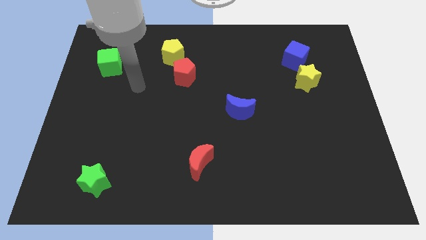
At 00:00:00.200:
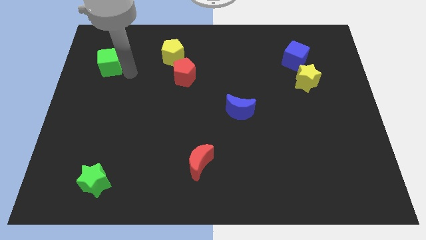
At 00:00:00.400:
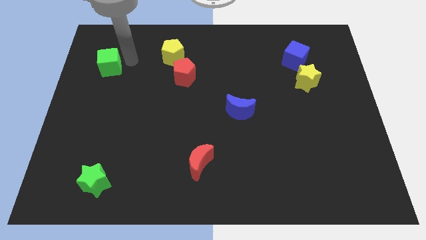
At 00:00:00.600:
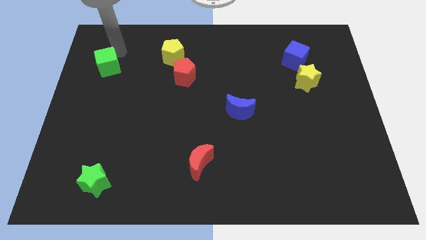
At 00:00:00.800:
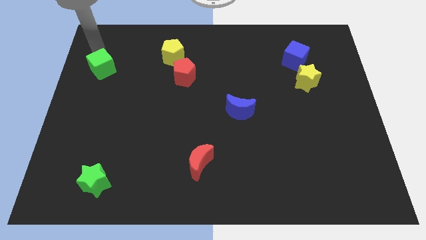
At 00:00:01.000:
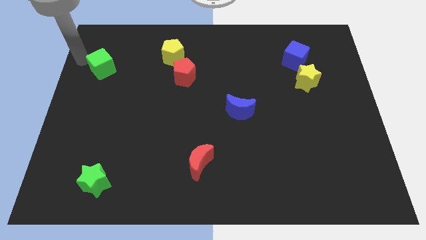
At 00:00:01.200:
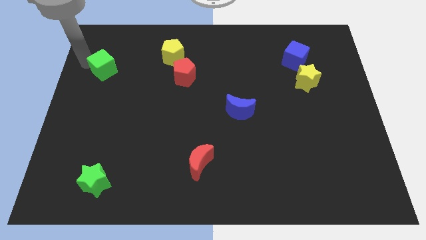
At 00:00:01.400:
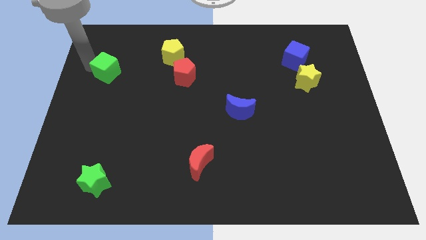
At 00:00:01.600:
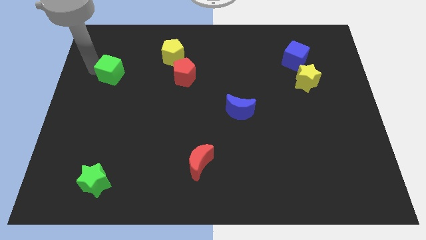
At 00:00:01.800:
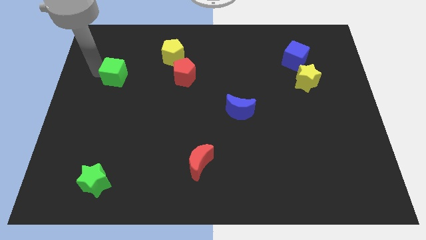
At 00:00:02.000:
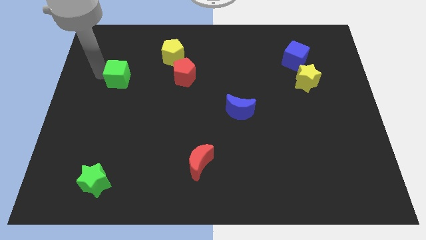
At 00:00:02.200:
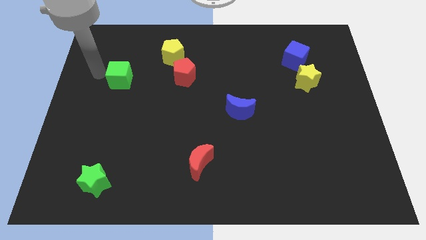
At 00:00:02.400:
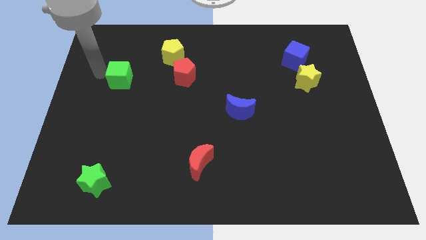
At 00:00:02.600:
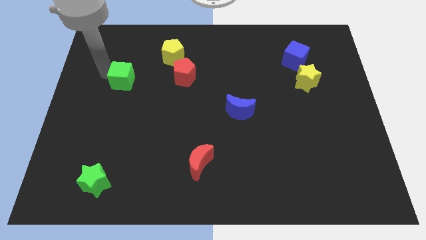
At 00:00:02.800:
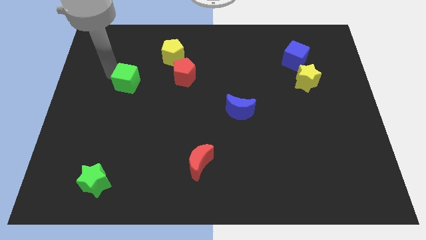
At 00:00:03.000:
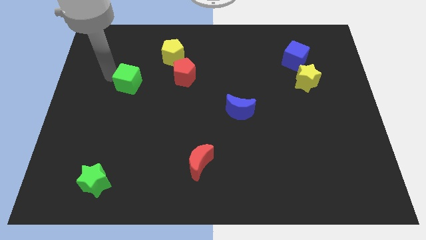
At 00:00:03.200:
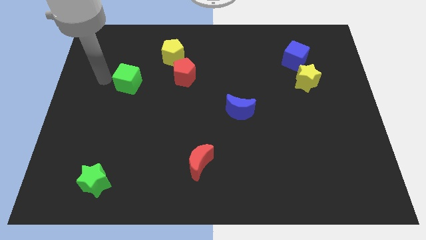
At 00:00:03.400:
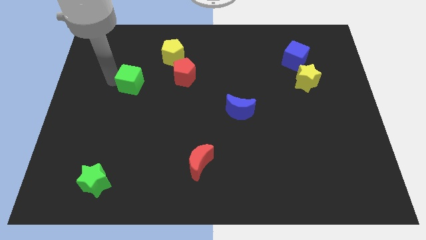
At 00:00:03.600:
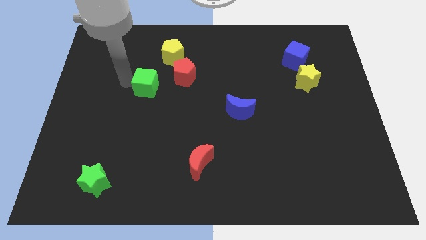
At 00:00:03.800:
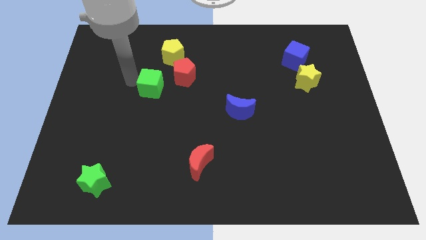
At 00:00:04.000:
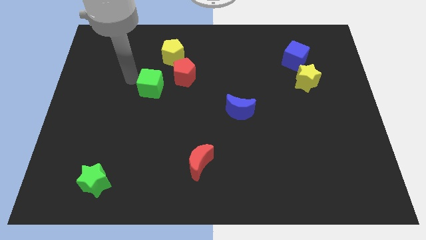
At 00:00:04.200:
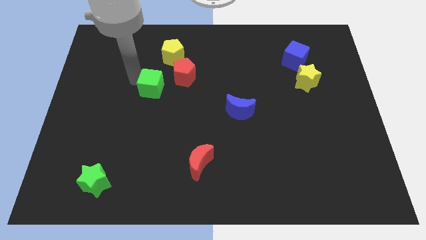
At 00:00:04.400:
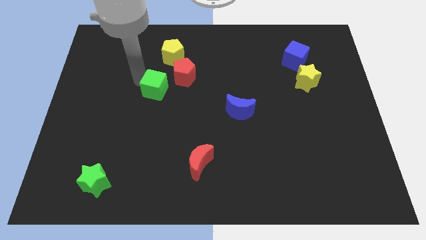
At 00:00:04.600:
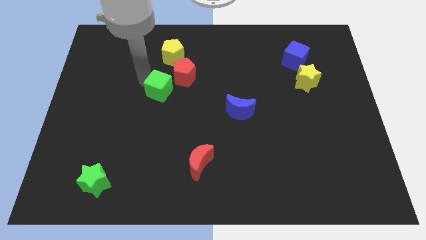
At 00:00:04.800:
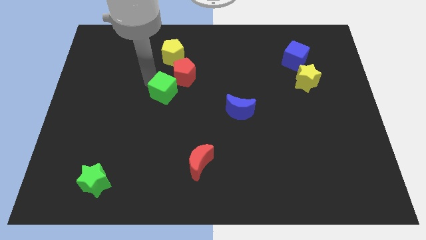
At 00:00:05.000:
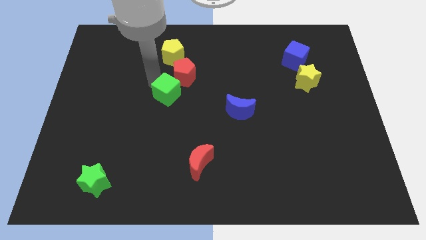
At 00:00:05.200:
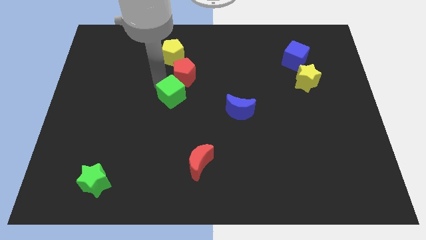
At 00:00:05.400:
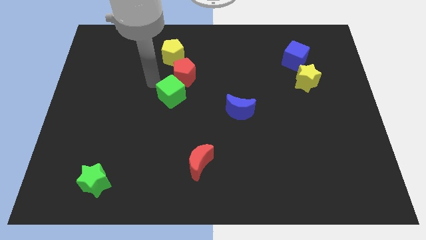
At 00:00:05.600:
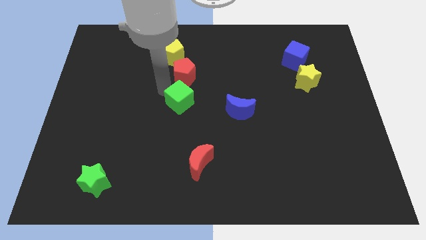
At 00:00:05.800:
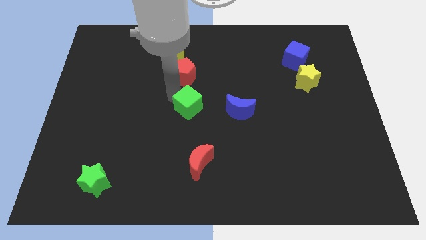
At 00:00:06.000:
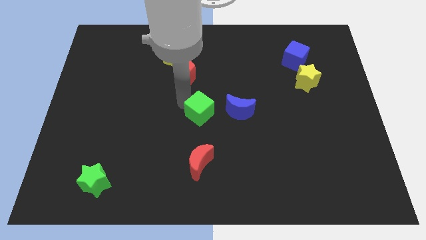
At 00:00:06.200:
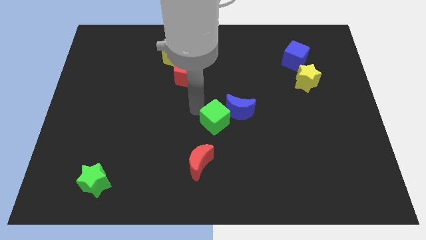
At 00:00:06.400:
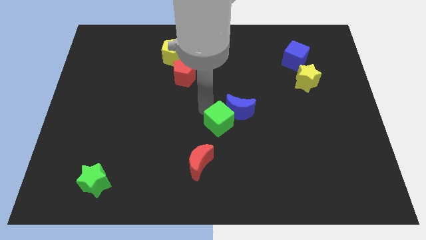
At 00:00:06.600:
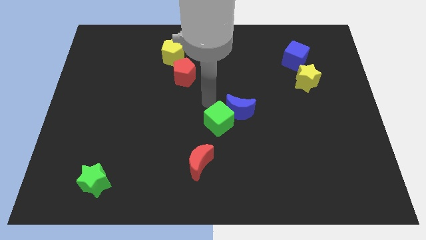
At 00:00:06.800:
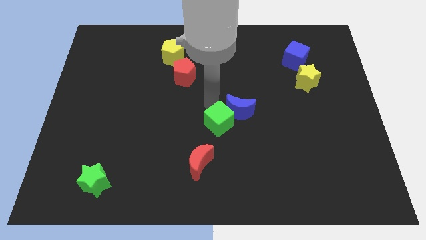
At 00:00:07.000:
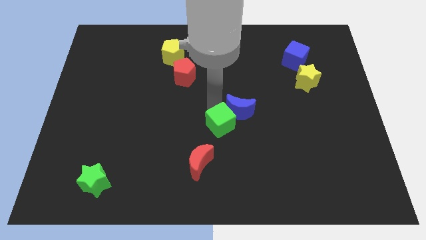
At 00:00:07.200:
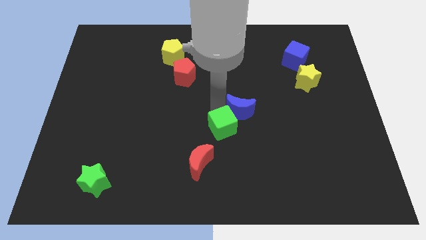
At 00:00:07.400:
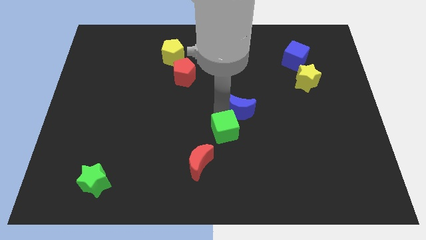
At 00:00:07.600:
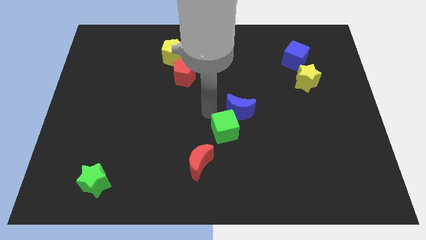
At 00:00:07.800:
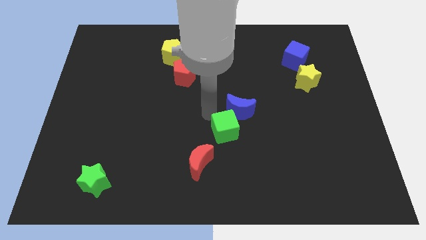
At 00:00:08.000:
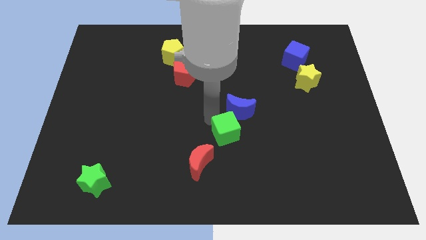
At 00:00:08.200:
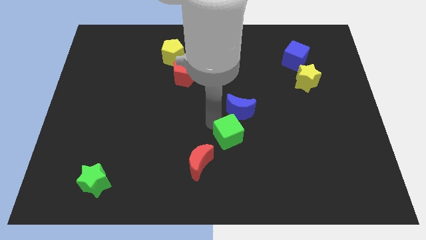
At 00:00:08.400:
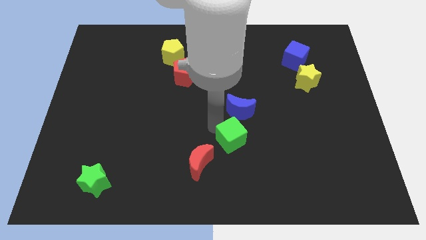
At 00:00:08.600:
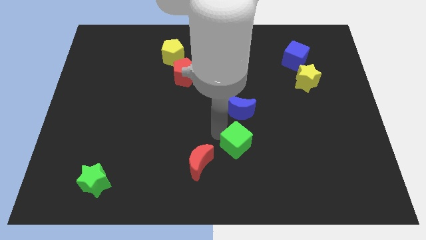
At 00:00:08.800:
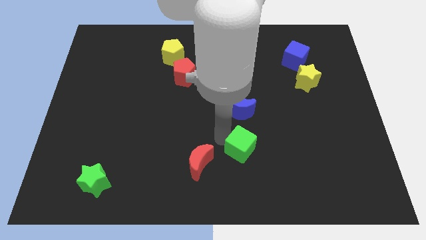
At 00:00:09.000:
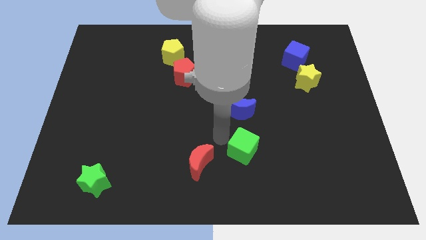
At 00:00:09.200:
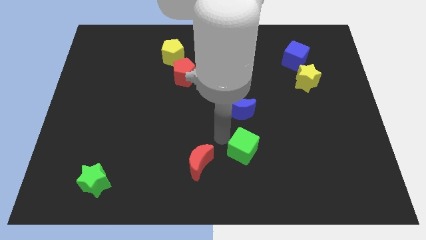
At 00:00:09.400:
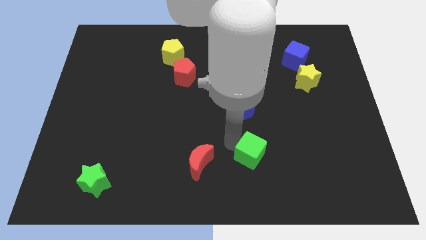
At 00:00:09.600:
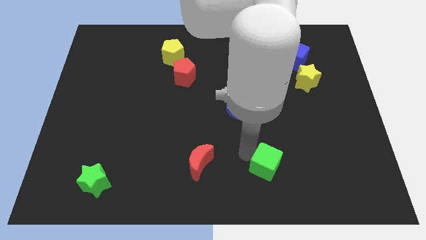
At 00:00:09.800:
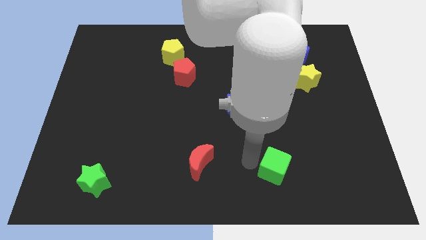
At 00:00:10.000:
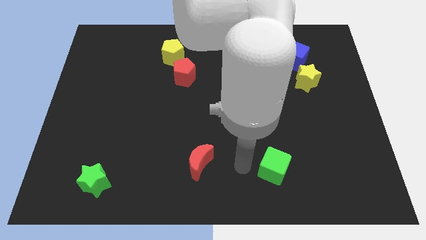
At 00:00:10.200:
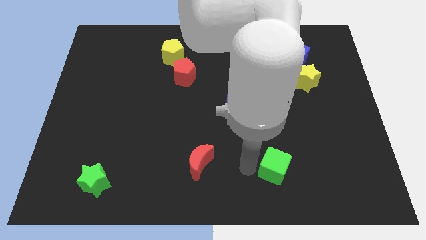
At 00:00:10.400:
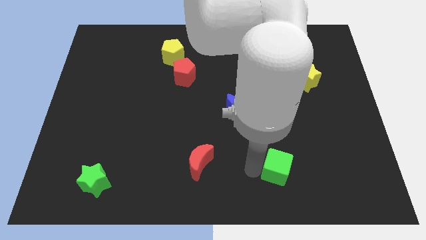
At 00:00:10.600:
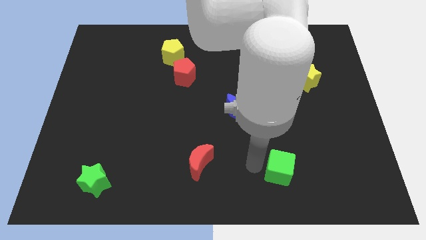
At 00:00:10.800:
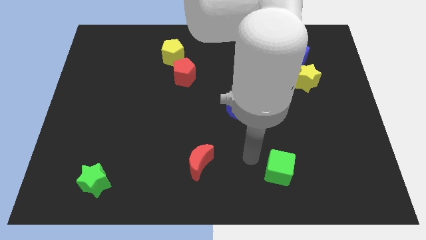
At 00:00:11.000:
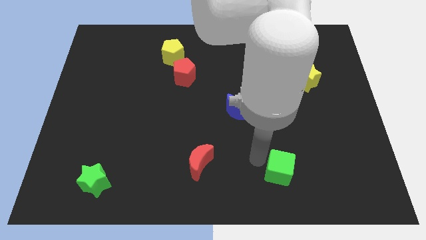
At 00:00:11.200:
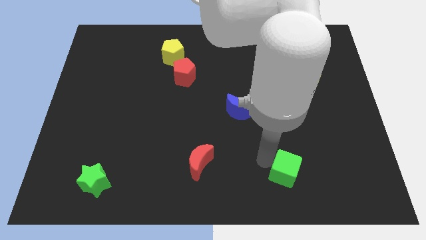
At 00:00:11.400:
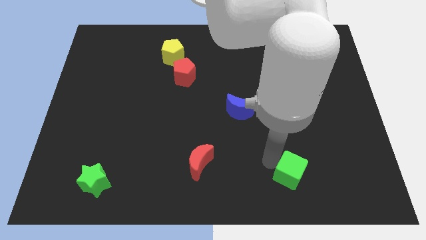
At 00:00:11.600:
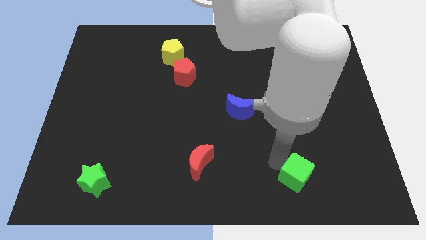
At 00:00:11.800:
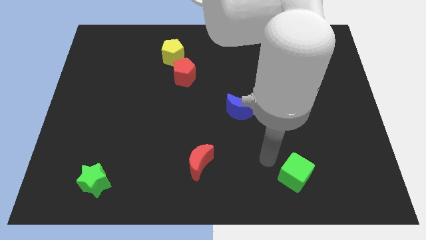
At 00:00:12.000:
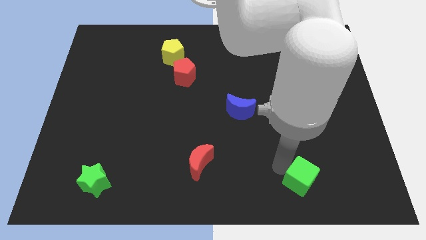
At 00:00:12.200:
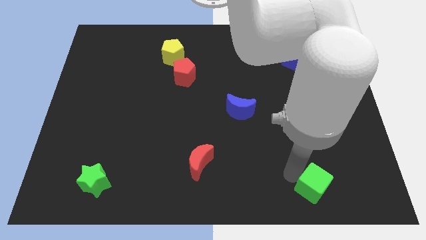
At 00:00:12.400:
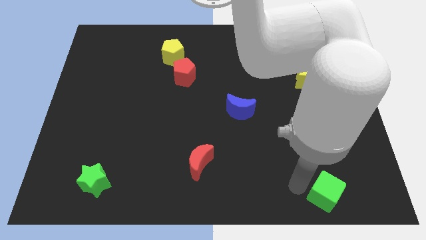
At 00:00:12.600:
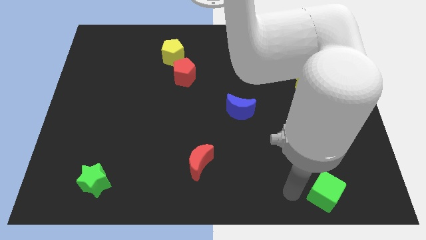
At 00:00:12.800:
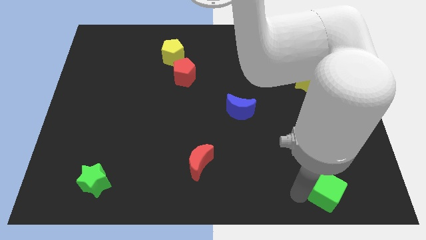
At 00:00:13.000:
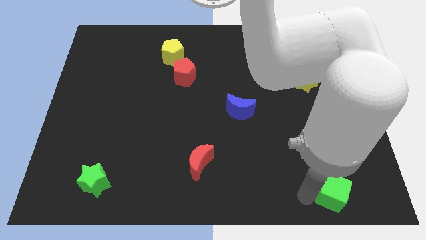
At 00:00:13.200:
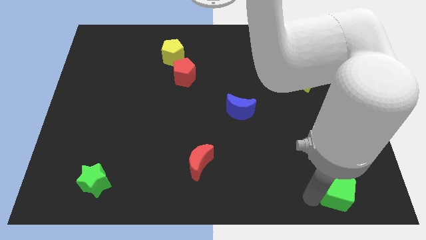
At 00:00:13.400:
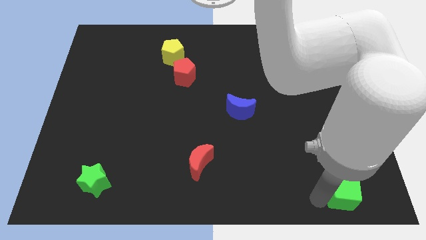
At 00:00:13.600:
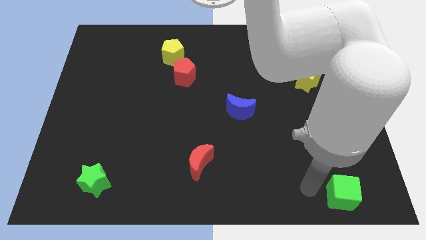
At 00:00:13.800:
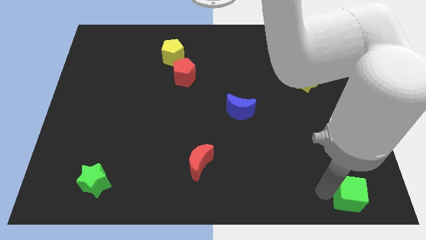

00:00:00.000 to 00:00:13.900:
push the green cube to the bottom right
